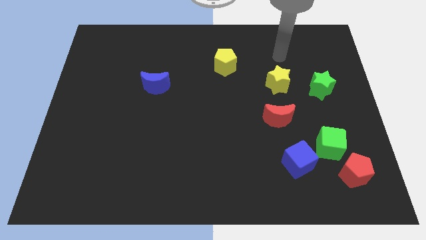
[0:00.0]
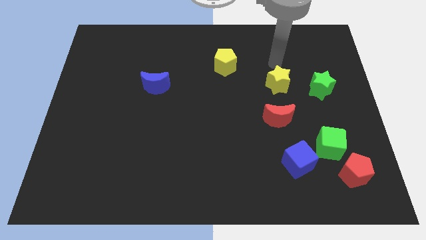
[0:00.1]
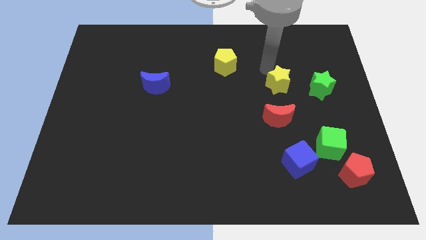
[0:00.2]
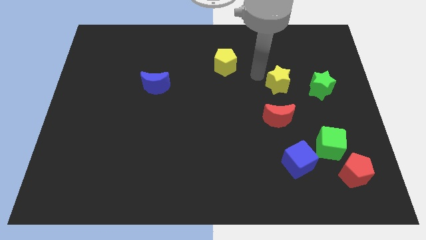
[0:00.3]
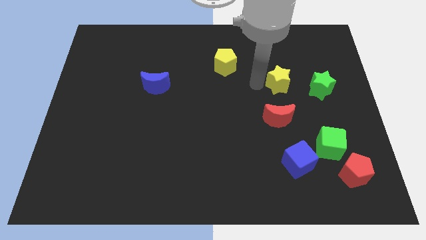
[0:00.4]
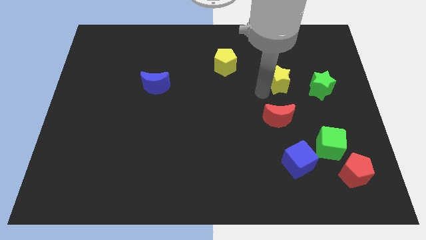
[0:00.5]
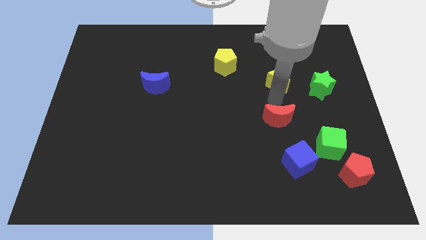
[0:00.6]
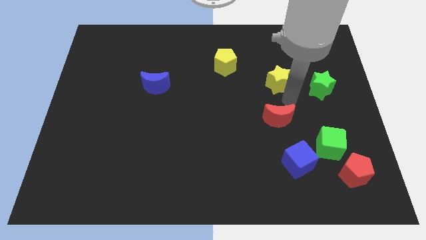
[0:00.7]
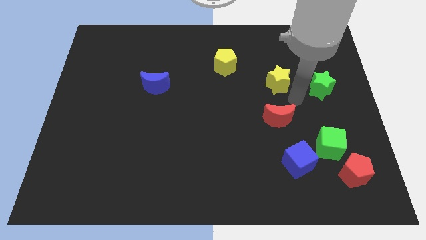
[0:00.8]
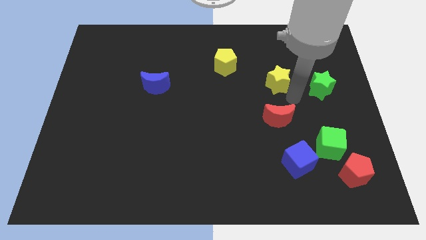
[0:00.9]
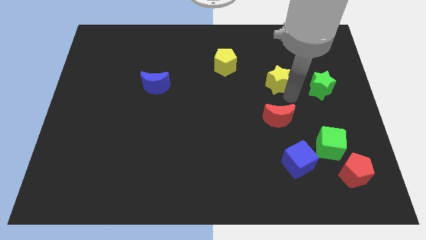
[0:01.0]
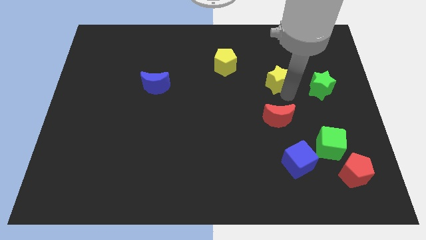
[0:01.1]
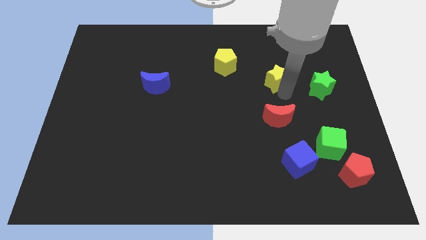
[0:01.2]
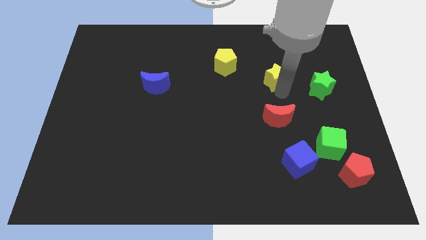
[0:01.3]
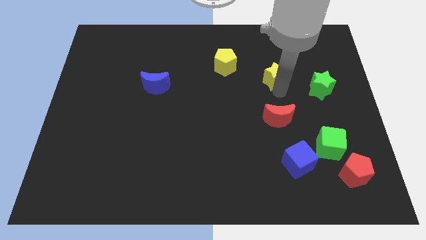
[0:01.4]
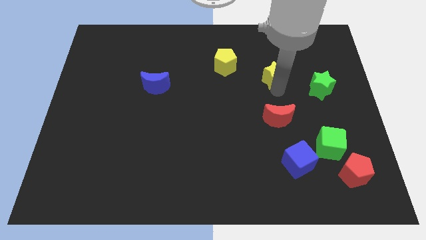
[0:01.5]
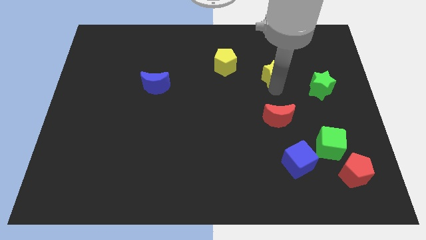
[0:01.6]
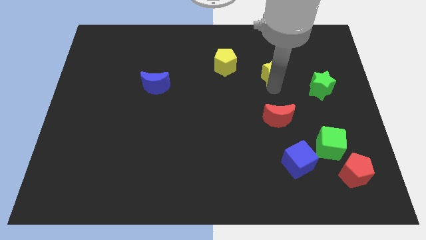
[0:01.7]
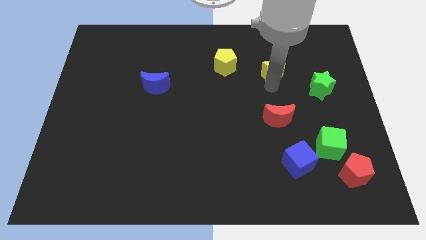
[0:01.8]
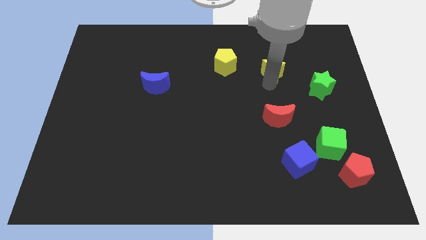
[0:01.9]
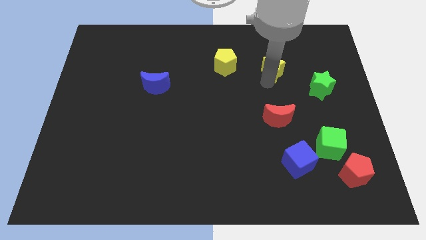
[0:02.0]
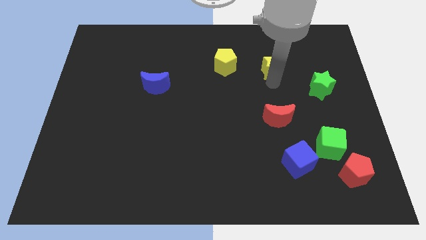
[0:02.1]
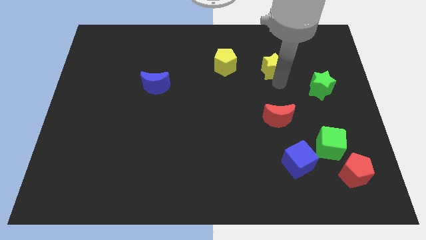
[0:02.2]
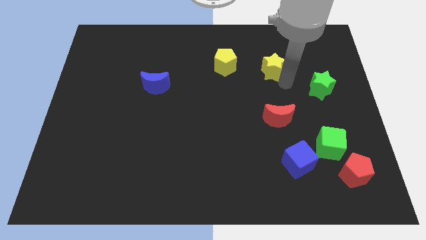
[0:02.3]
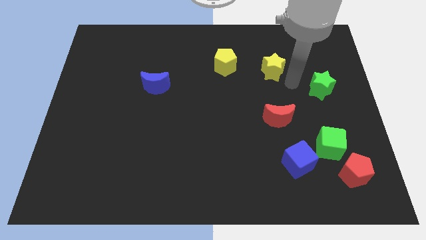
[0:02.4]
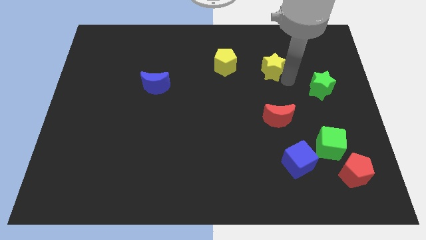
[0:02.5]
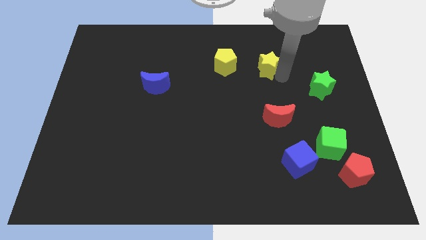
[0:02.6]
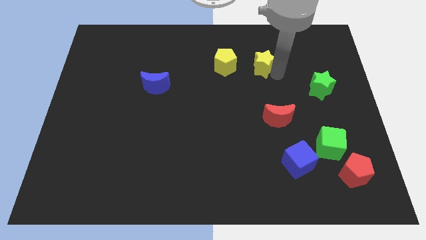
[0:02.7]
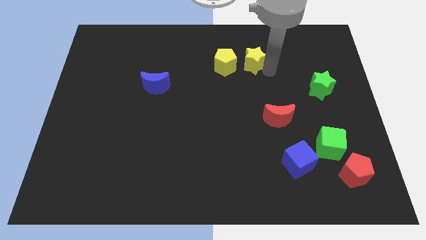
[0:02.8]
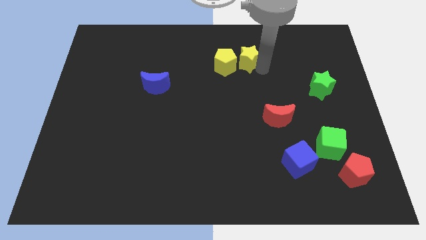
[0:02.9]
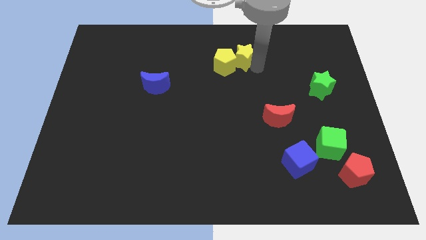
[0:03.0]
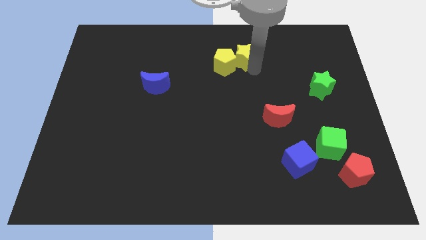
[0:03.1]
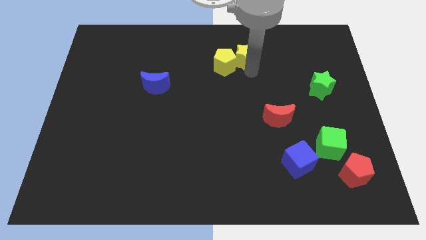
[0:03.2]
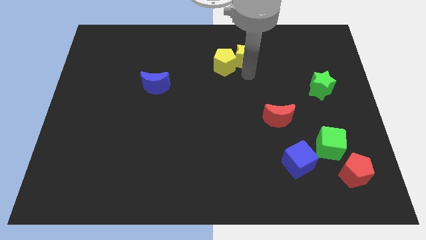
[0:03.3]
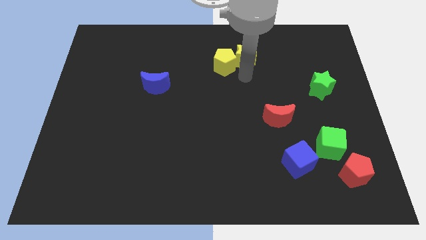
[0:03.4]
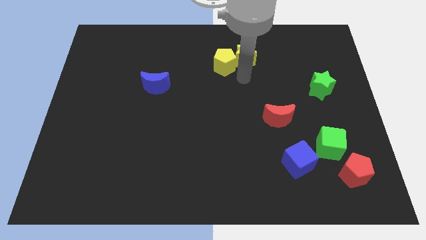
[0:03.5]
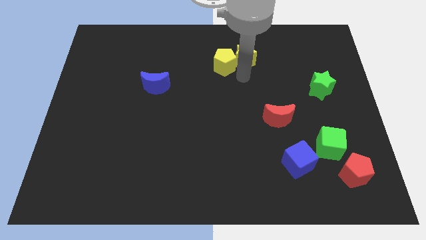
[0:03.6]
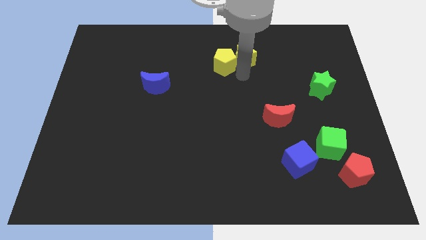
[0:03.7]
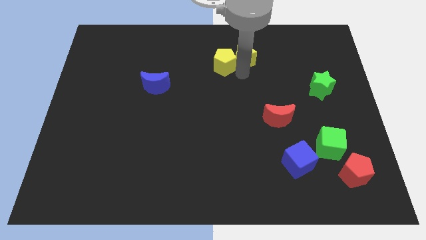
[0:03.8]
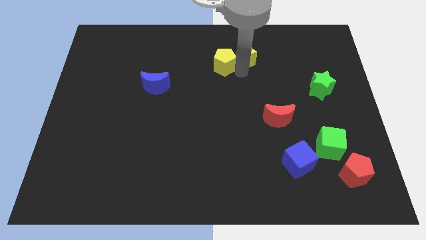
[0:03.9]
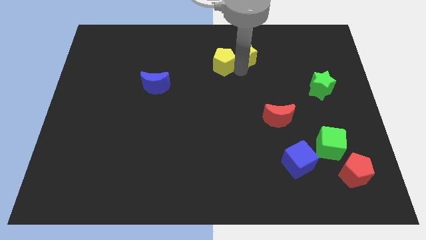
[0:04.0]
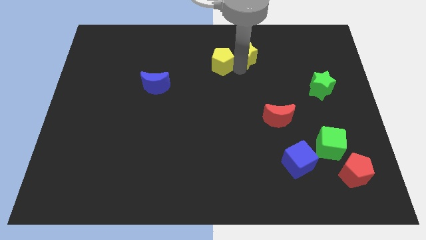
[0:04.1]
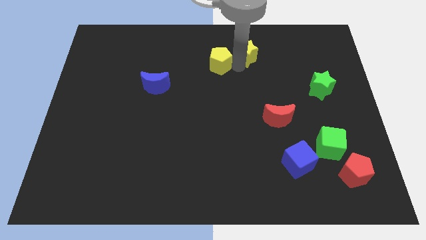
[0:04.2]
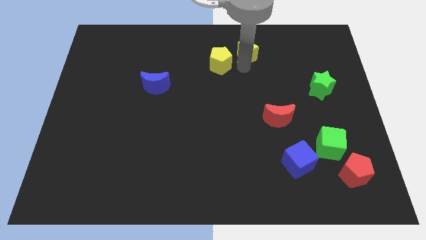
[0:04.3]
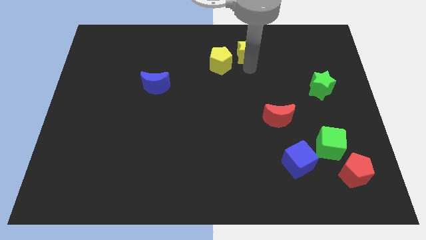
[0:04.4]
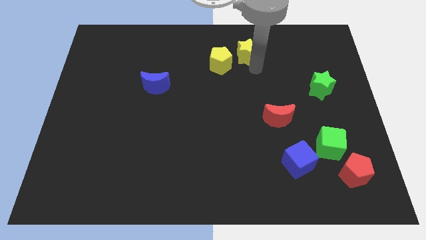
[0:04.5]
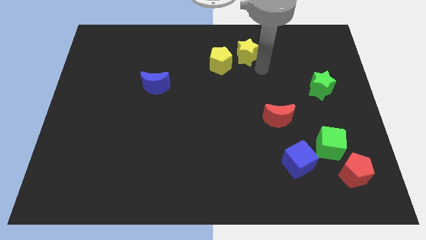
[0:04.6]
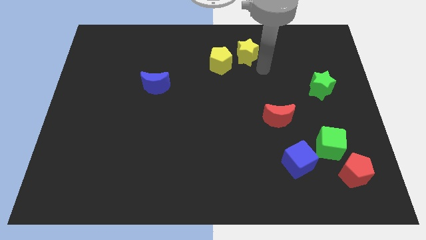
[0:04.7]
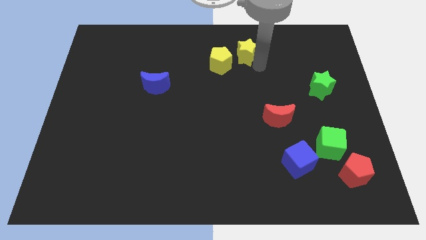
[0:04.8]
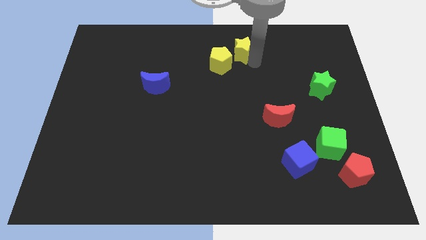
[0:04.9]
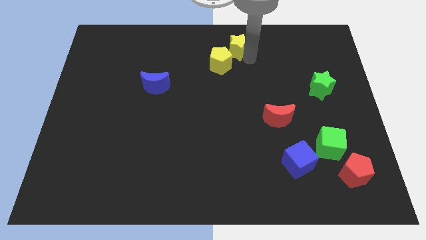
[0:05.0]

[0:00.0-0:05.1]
slide the yellow star to the top side

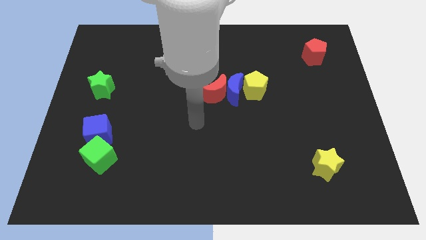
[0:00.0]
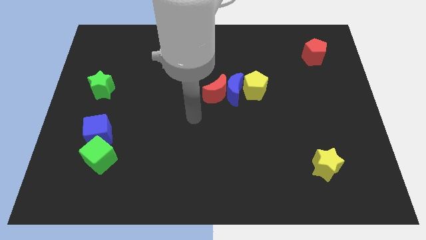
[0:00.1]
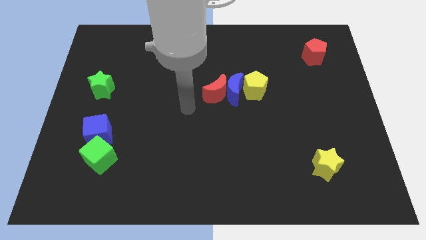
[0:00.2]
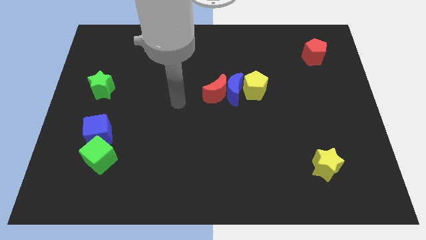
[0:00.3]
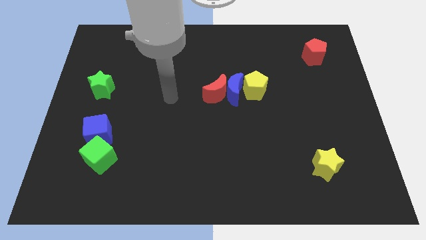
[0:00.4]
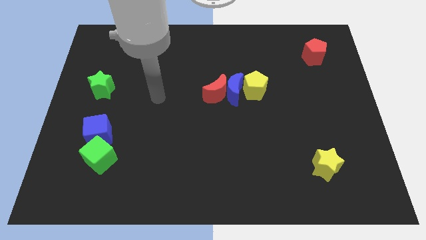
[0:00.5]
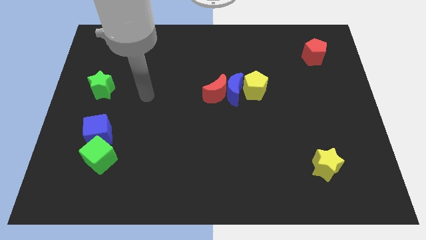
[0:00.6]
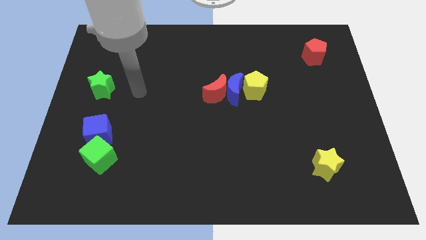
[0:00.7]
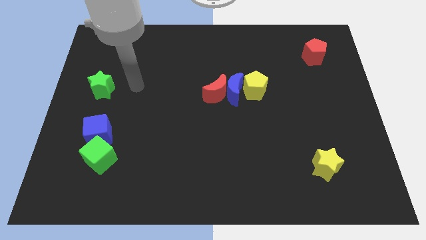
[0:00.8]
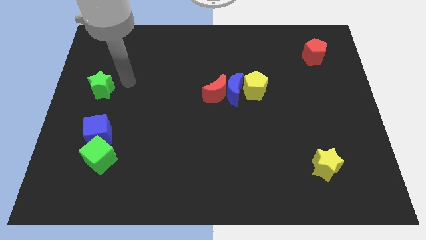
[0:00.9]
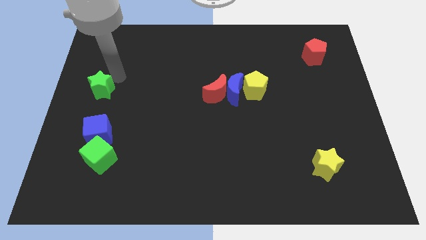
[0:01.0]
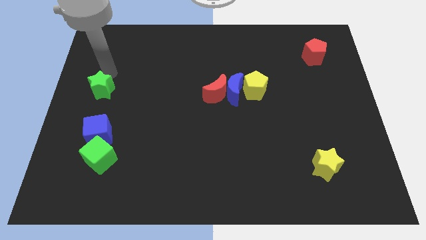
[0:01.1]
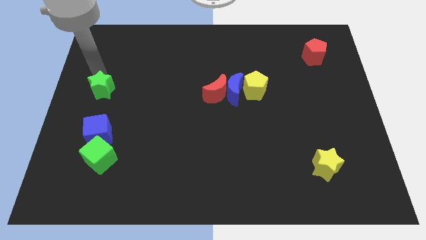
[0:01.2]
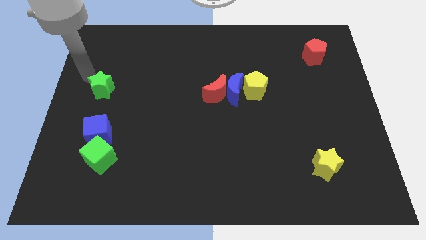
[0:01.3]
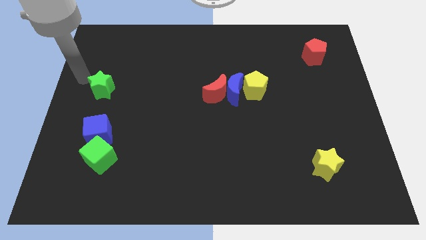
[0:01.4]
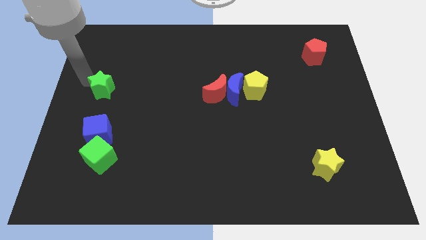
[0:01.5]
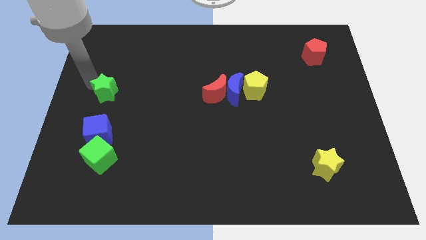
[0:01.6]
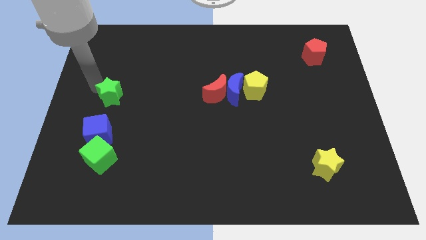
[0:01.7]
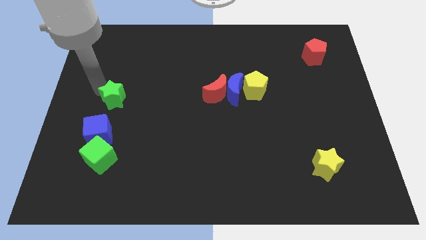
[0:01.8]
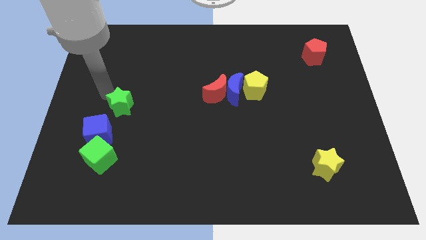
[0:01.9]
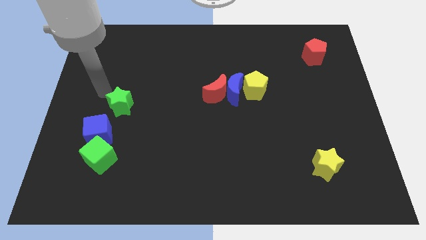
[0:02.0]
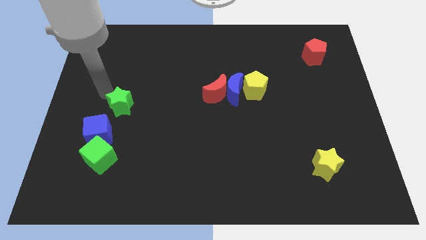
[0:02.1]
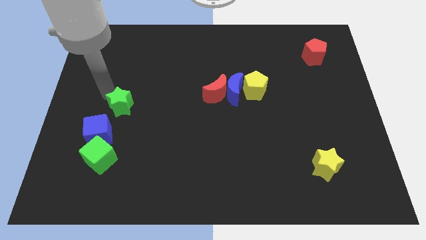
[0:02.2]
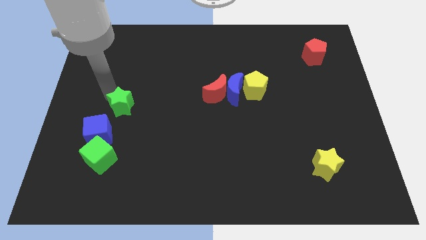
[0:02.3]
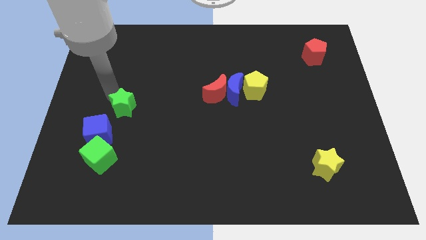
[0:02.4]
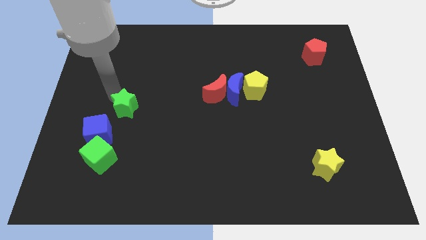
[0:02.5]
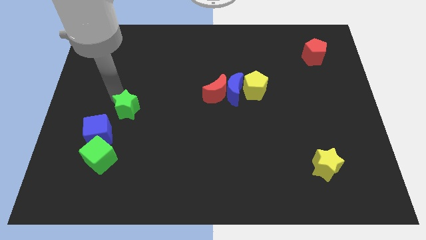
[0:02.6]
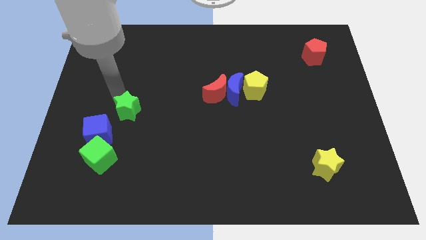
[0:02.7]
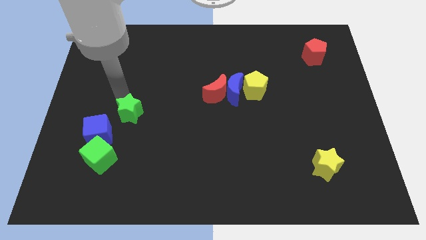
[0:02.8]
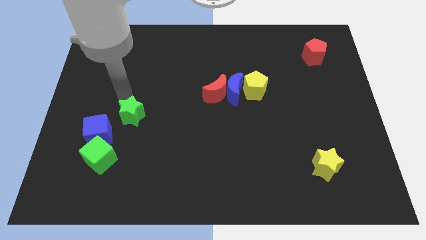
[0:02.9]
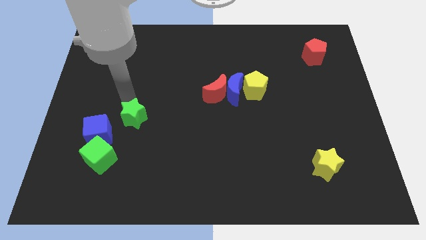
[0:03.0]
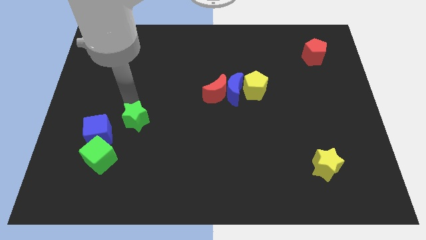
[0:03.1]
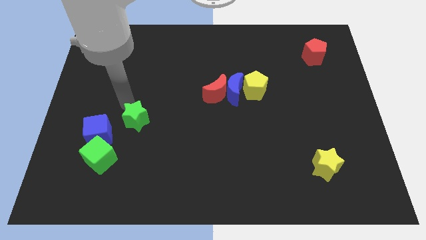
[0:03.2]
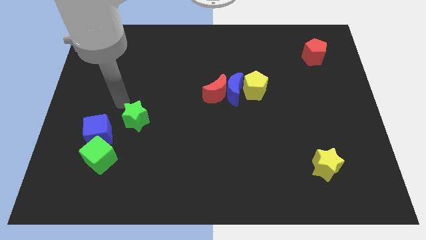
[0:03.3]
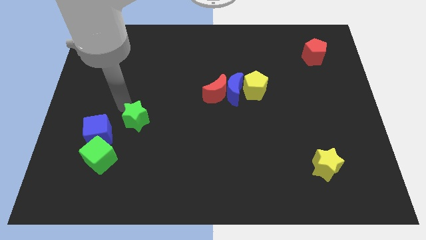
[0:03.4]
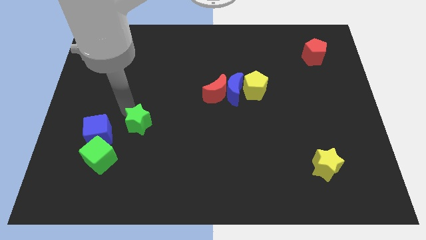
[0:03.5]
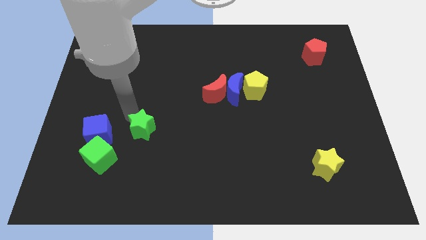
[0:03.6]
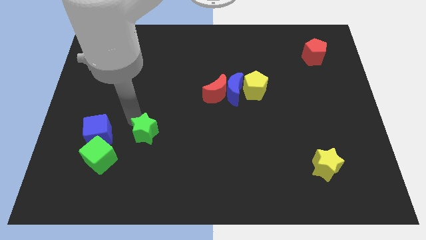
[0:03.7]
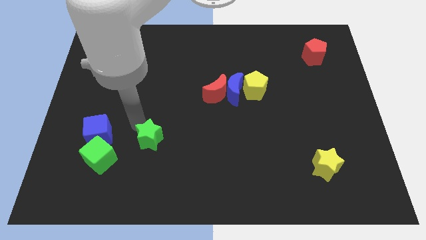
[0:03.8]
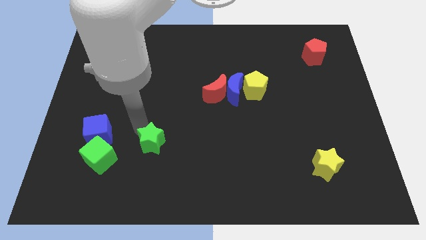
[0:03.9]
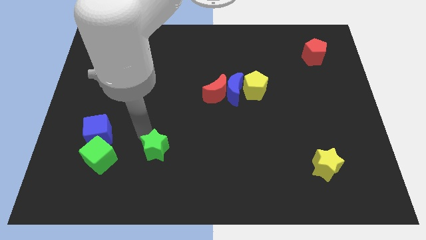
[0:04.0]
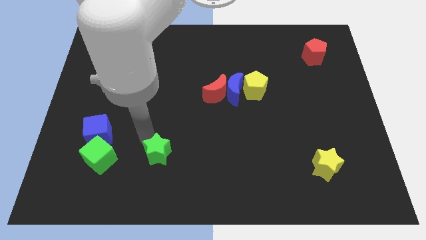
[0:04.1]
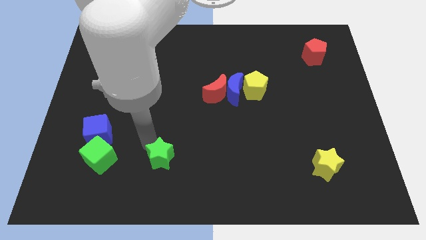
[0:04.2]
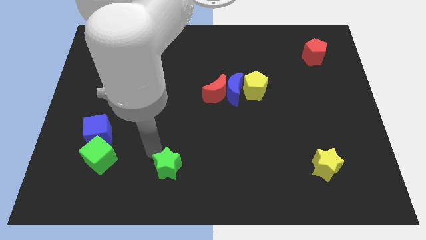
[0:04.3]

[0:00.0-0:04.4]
move the green star to the bottom
